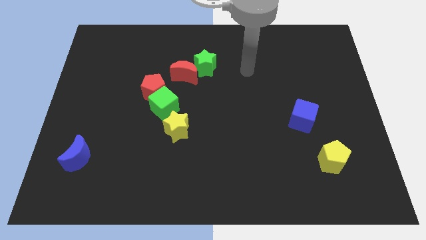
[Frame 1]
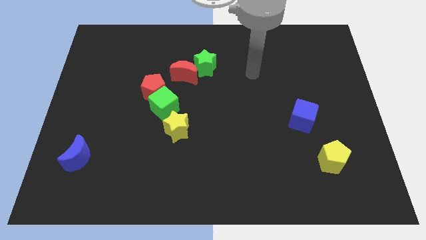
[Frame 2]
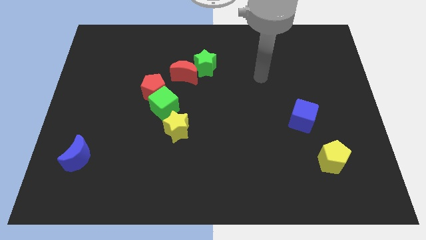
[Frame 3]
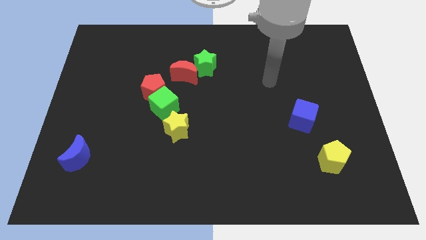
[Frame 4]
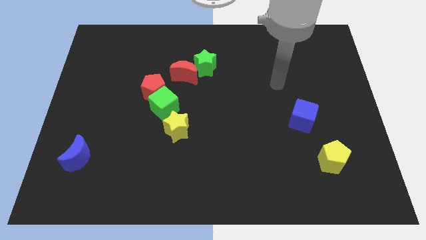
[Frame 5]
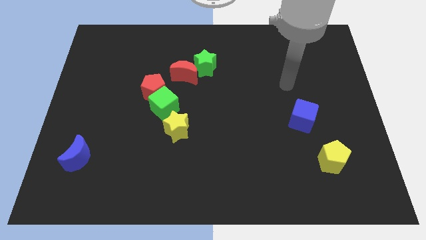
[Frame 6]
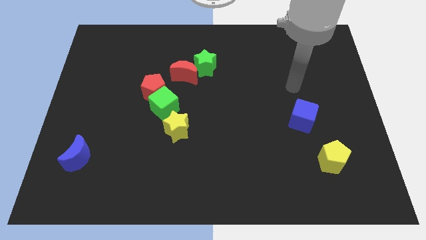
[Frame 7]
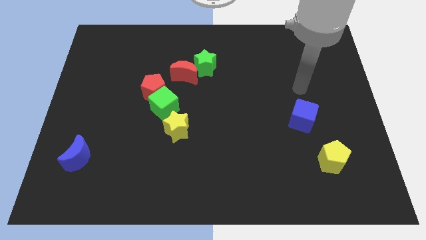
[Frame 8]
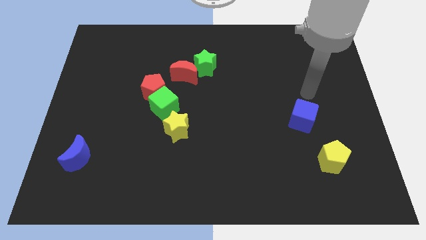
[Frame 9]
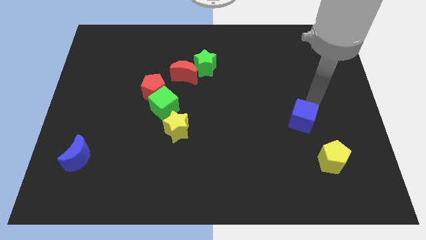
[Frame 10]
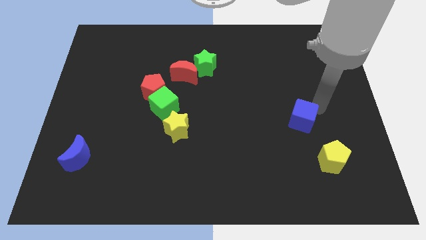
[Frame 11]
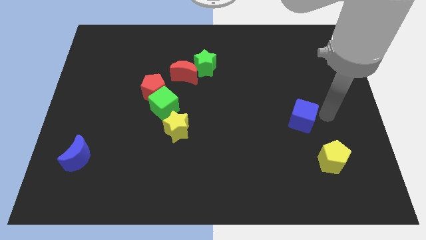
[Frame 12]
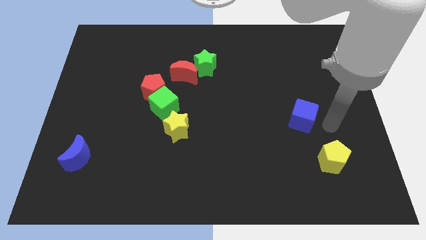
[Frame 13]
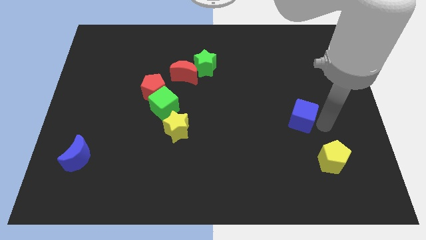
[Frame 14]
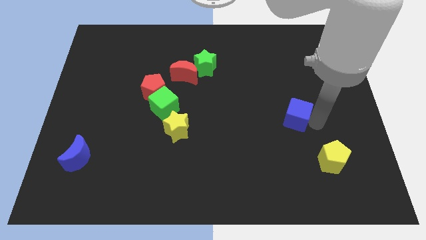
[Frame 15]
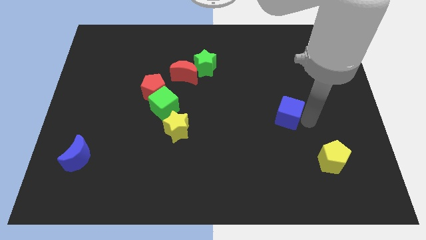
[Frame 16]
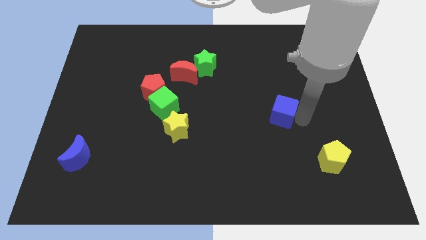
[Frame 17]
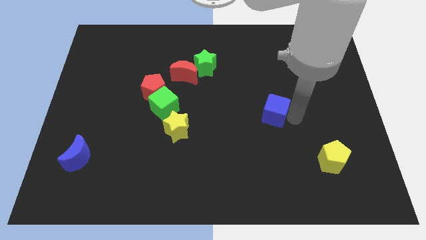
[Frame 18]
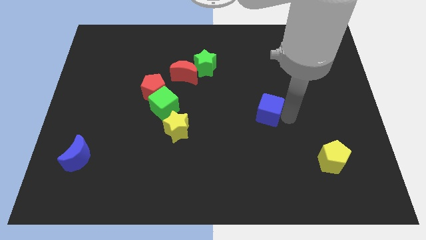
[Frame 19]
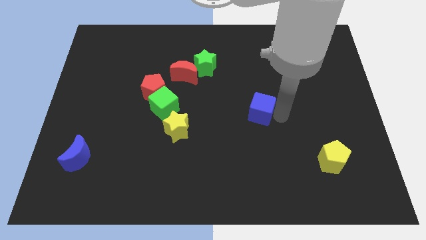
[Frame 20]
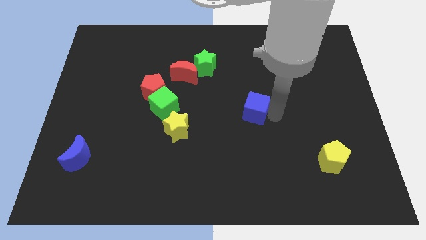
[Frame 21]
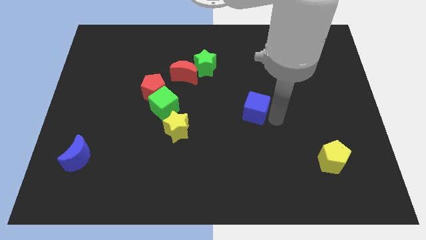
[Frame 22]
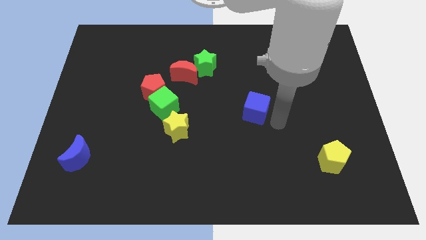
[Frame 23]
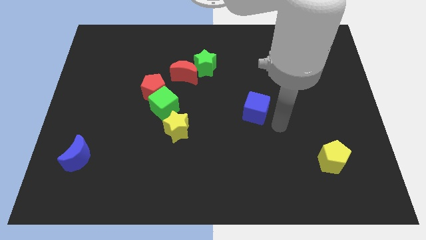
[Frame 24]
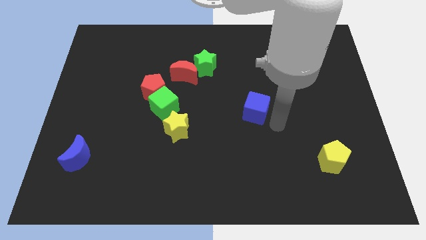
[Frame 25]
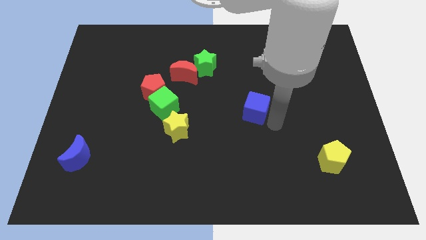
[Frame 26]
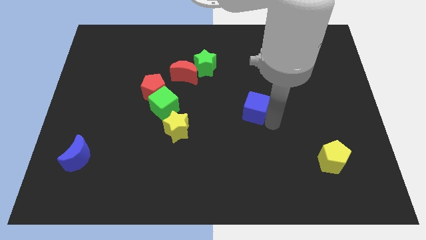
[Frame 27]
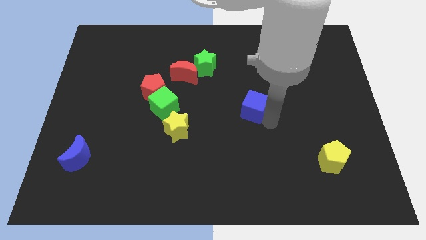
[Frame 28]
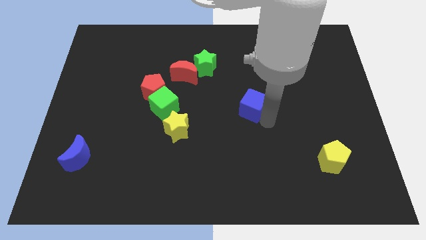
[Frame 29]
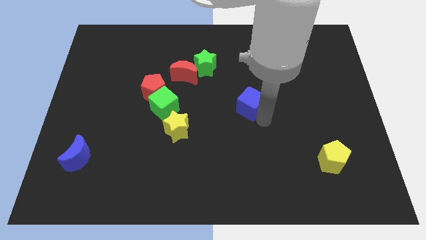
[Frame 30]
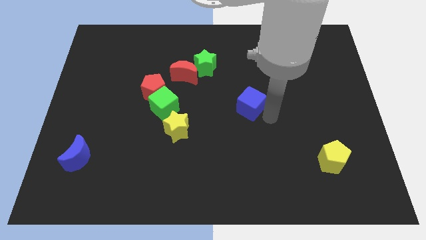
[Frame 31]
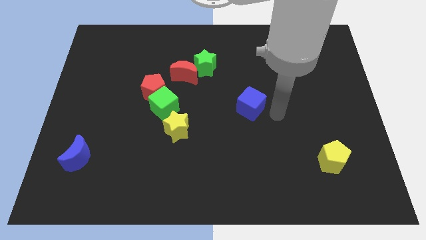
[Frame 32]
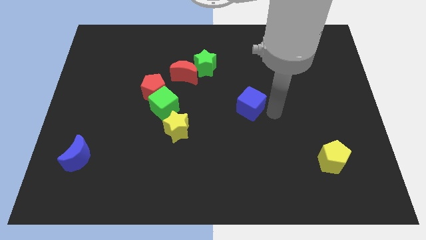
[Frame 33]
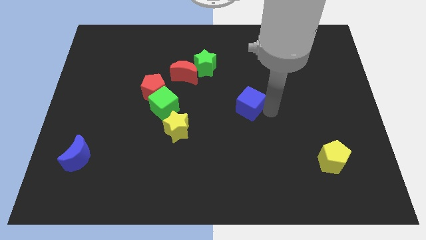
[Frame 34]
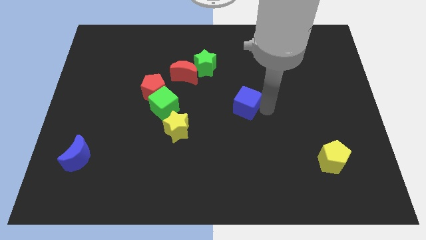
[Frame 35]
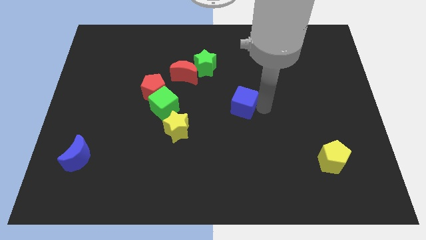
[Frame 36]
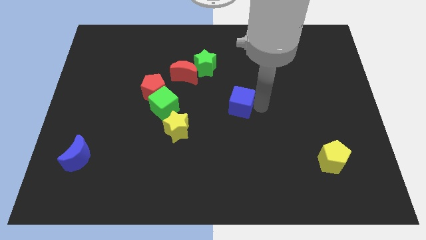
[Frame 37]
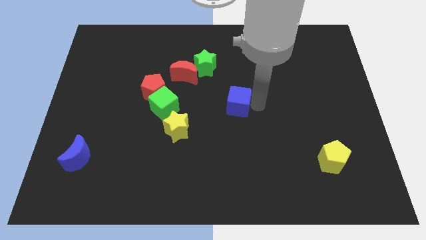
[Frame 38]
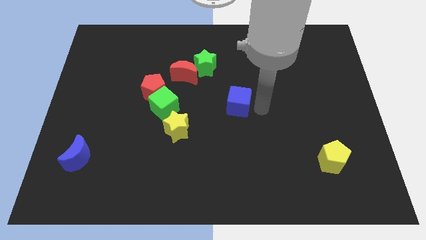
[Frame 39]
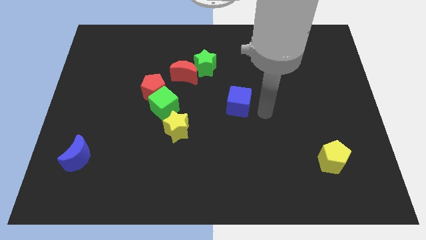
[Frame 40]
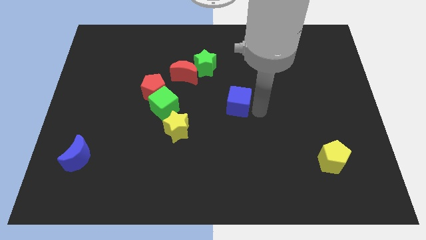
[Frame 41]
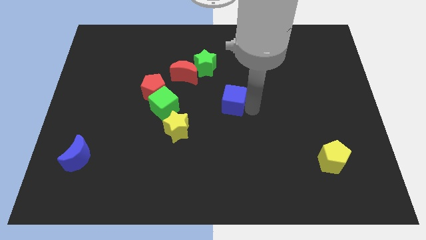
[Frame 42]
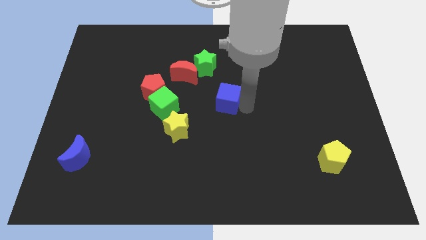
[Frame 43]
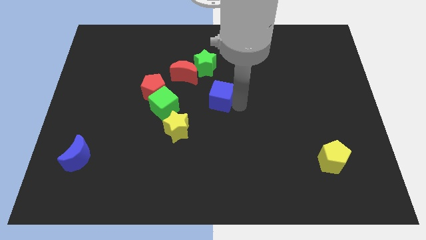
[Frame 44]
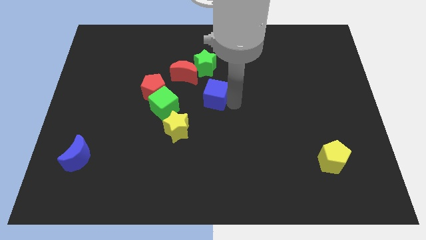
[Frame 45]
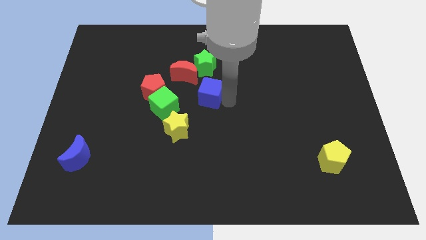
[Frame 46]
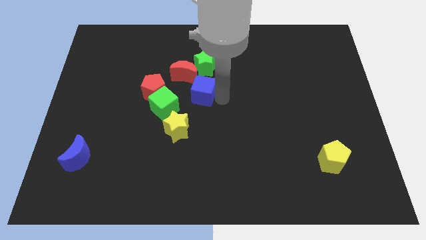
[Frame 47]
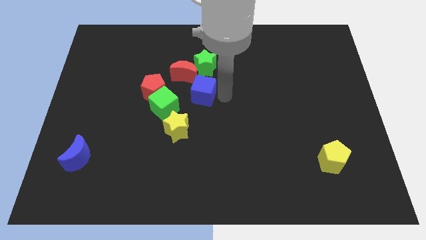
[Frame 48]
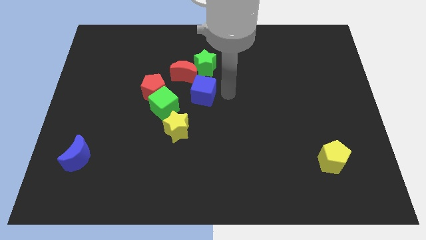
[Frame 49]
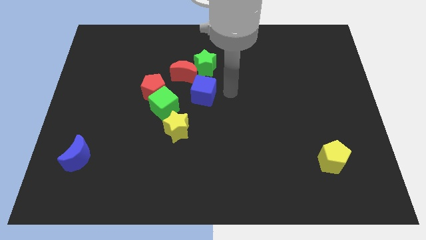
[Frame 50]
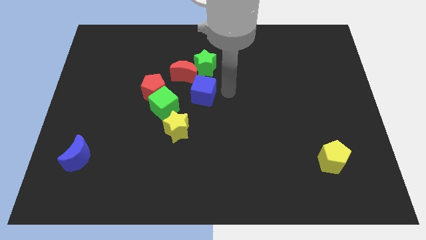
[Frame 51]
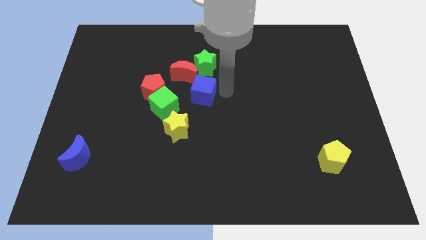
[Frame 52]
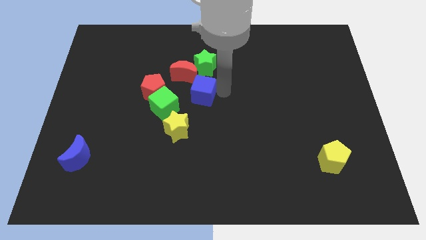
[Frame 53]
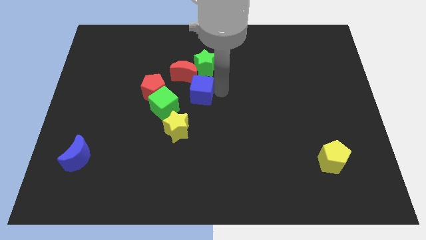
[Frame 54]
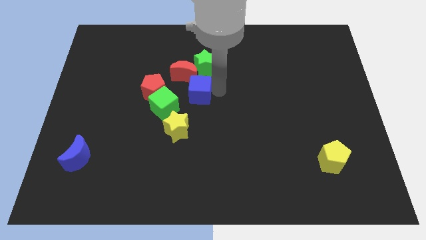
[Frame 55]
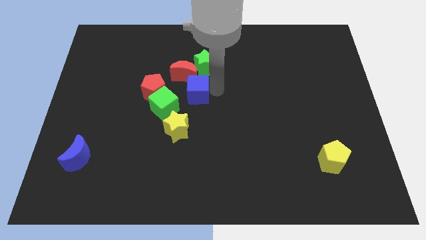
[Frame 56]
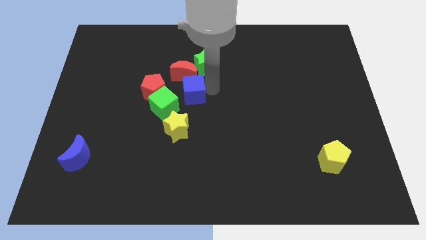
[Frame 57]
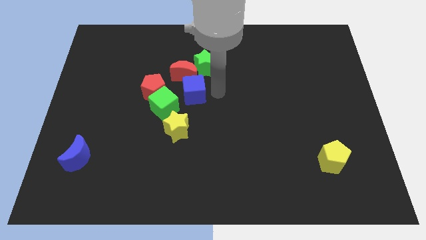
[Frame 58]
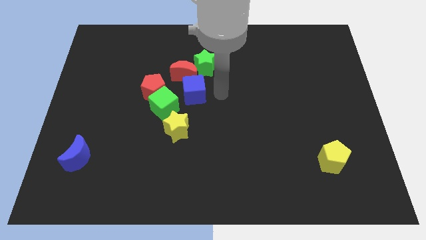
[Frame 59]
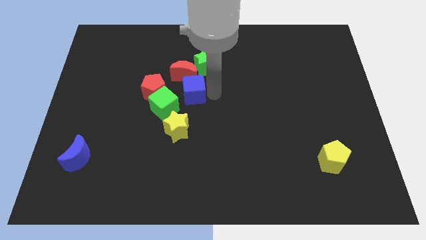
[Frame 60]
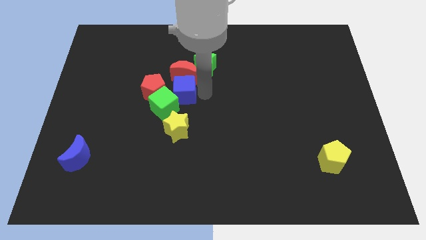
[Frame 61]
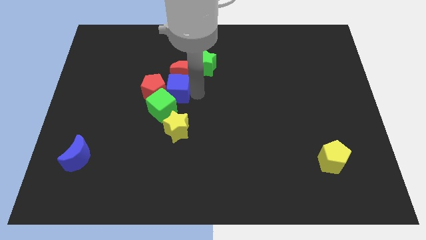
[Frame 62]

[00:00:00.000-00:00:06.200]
move the blue cube to the red pentagon
